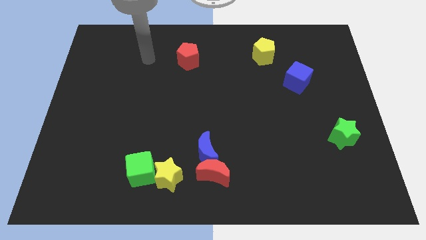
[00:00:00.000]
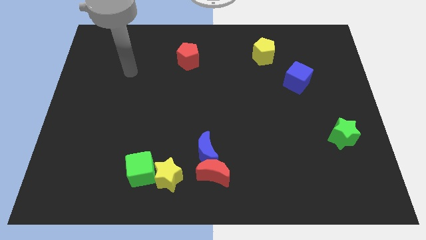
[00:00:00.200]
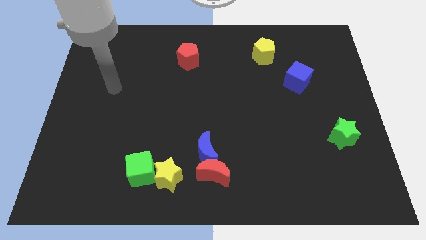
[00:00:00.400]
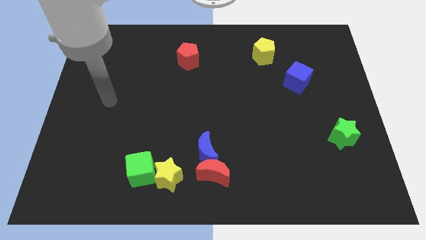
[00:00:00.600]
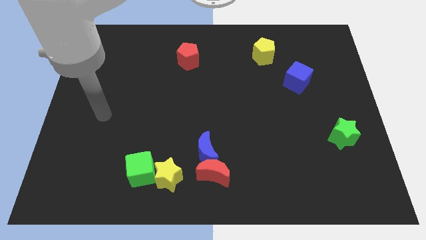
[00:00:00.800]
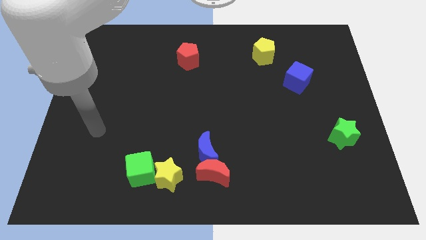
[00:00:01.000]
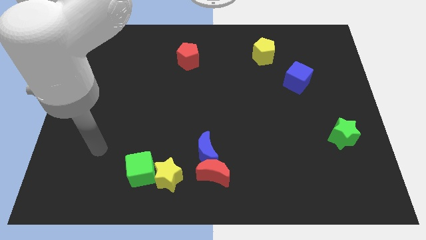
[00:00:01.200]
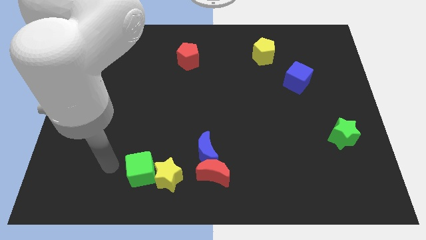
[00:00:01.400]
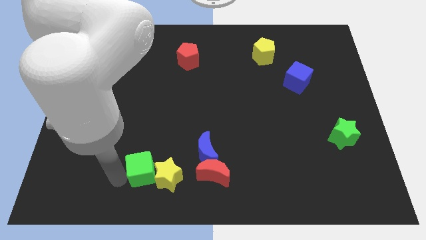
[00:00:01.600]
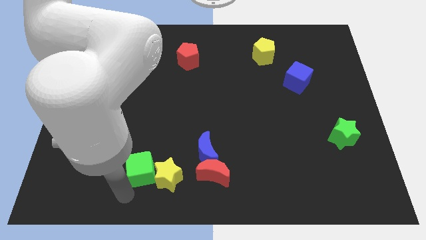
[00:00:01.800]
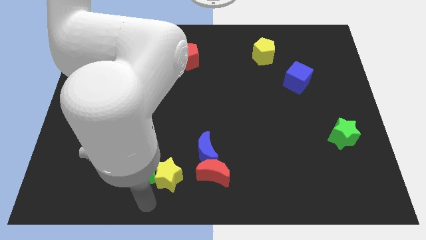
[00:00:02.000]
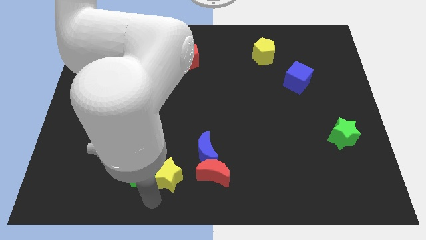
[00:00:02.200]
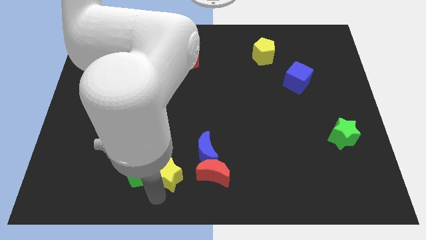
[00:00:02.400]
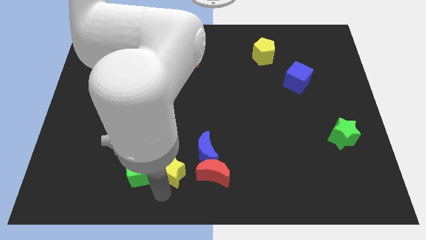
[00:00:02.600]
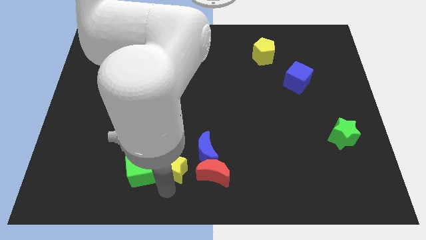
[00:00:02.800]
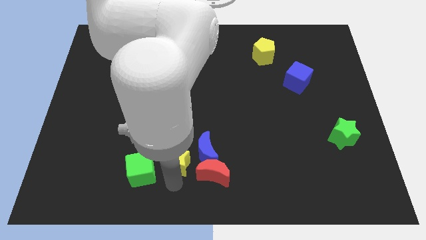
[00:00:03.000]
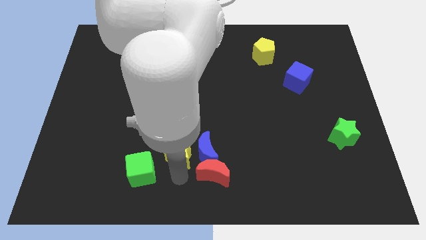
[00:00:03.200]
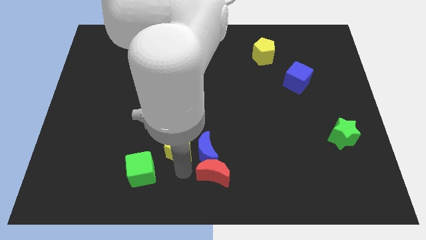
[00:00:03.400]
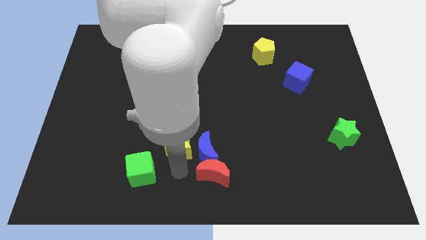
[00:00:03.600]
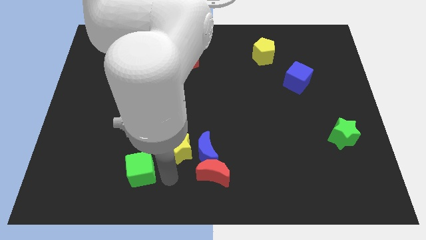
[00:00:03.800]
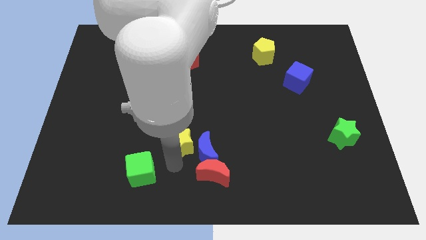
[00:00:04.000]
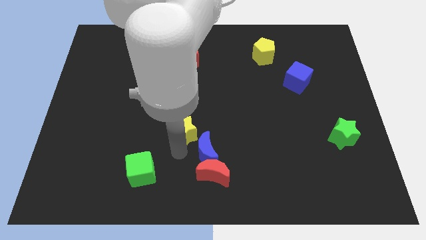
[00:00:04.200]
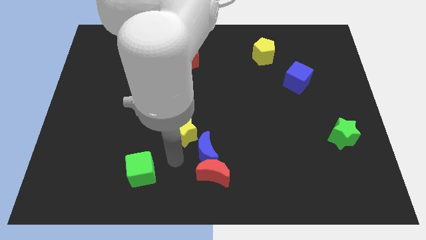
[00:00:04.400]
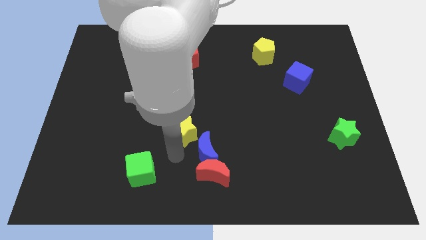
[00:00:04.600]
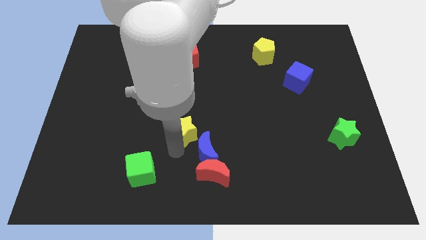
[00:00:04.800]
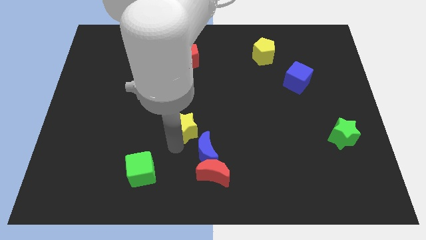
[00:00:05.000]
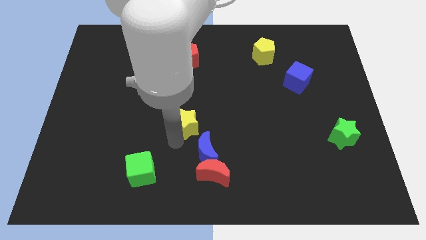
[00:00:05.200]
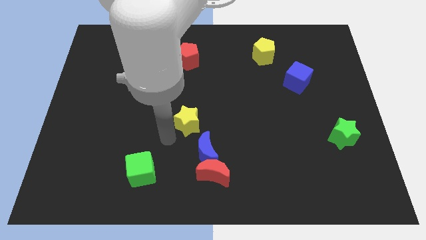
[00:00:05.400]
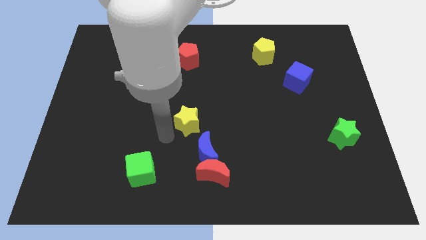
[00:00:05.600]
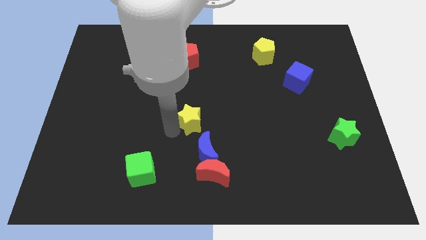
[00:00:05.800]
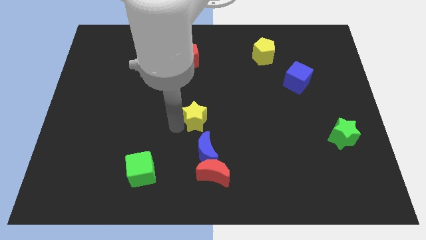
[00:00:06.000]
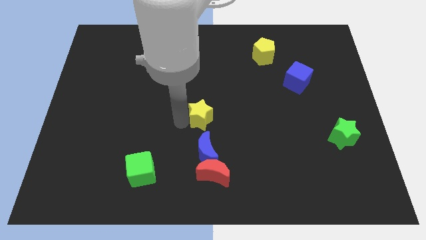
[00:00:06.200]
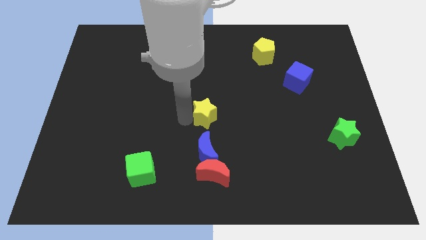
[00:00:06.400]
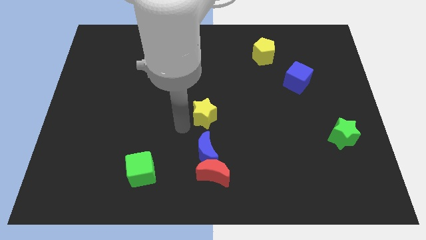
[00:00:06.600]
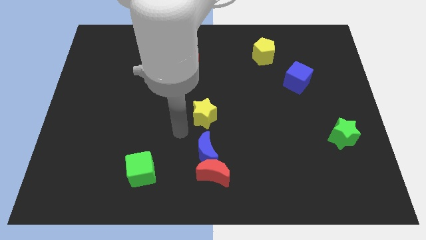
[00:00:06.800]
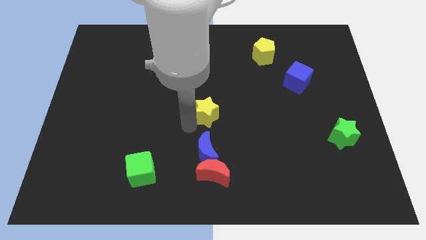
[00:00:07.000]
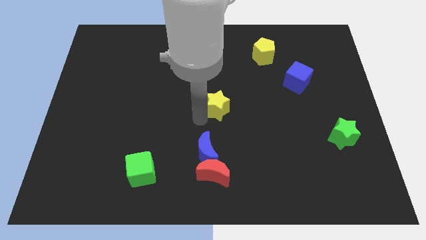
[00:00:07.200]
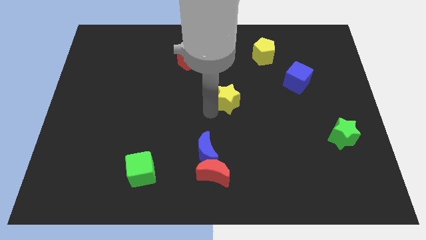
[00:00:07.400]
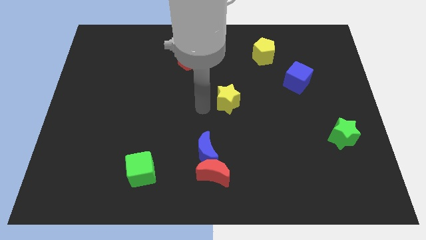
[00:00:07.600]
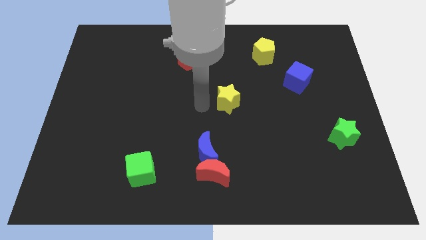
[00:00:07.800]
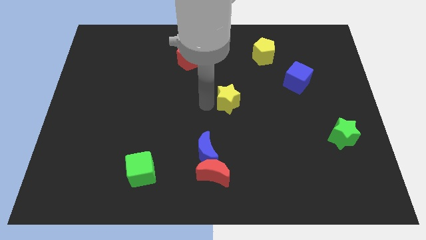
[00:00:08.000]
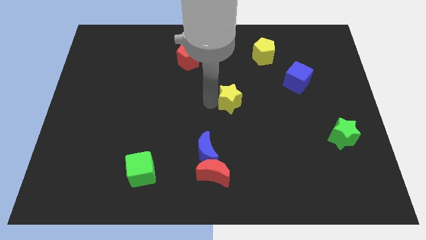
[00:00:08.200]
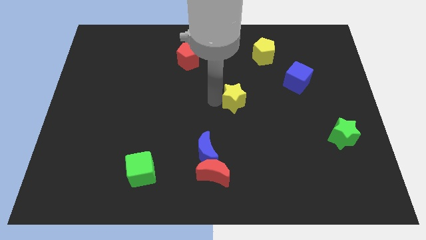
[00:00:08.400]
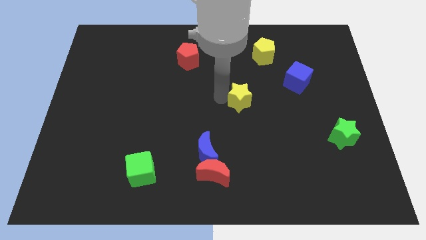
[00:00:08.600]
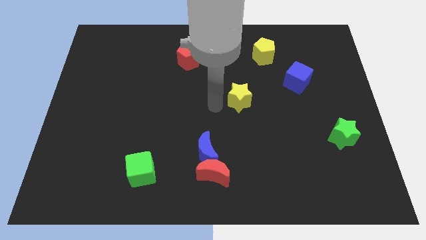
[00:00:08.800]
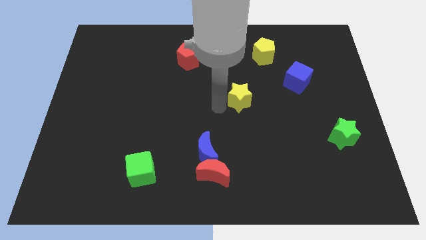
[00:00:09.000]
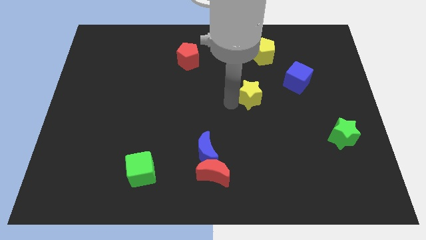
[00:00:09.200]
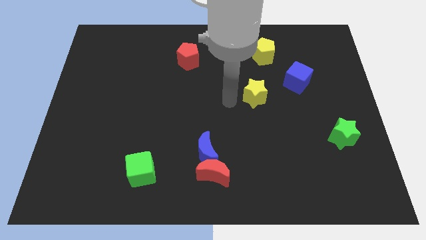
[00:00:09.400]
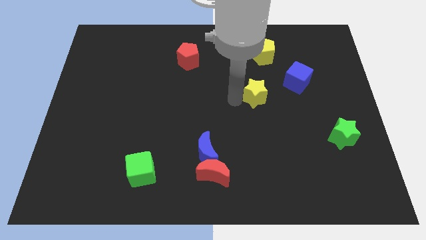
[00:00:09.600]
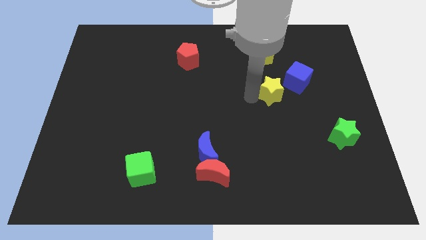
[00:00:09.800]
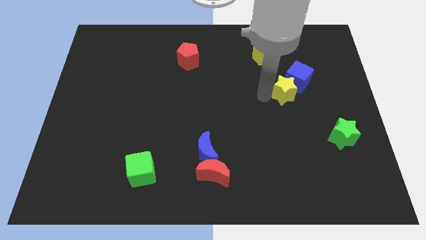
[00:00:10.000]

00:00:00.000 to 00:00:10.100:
move the yellow star next to the blue cube

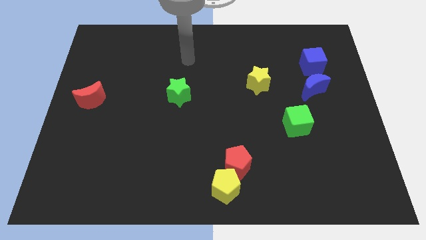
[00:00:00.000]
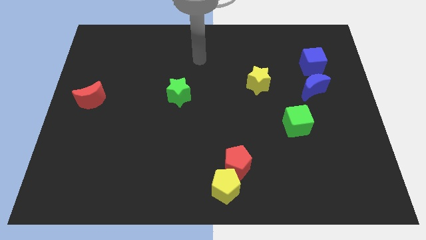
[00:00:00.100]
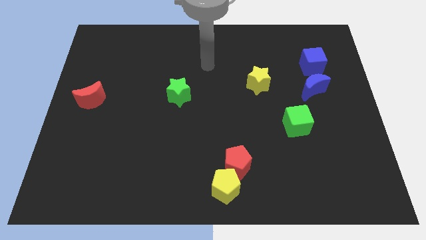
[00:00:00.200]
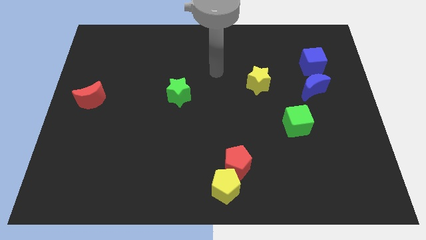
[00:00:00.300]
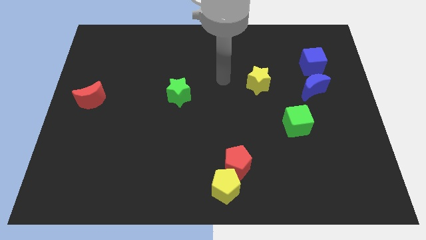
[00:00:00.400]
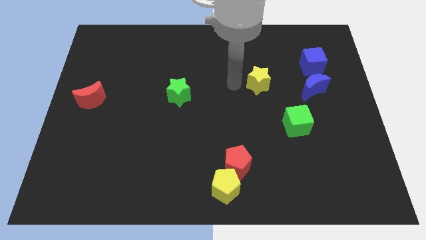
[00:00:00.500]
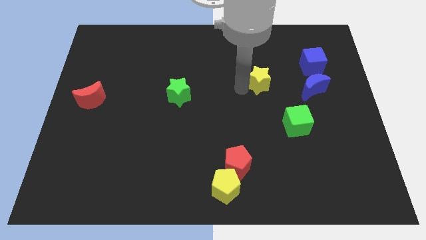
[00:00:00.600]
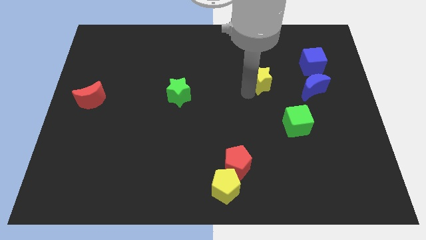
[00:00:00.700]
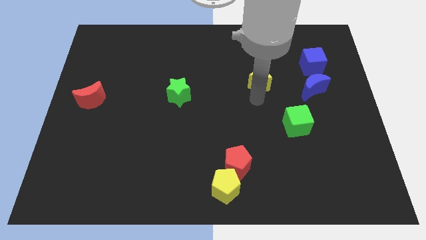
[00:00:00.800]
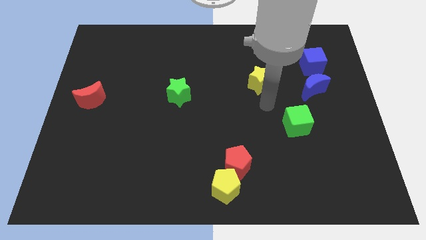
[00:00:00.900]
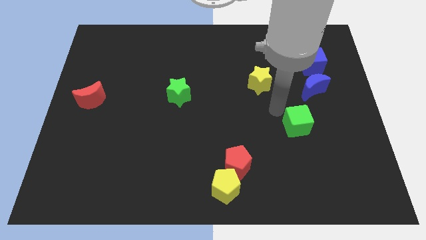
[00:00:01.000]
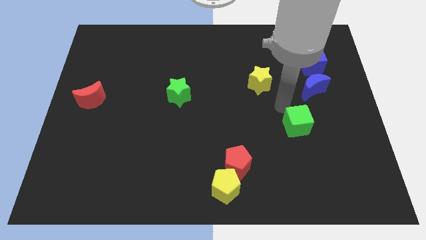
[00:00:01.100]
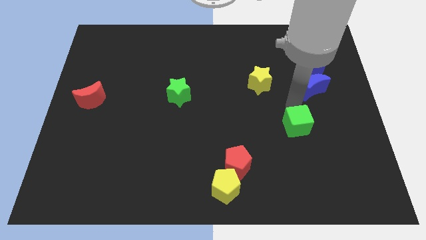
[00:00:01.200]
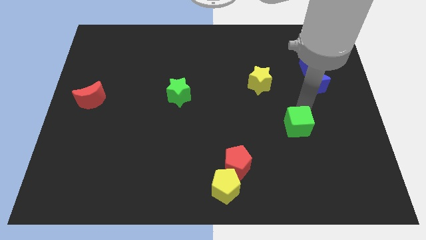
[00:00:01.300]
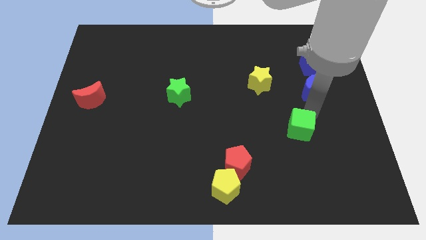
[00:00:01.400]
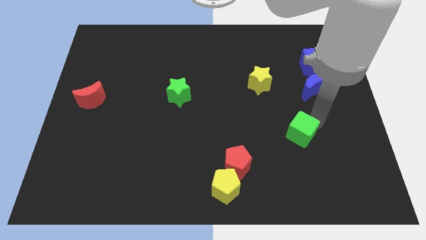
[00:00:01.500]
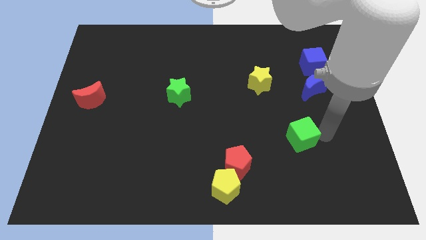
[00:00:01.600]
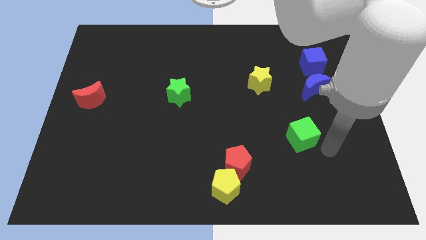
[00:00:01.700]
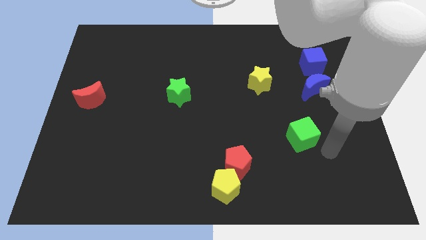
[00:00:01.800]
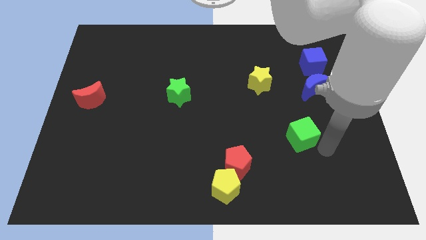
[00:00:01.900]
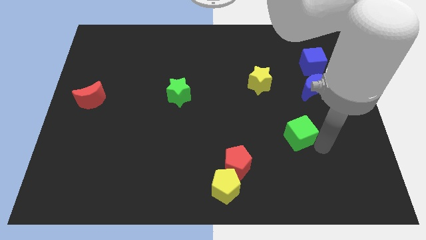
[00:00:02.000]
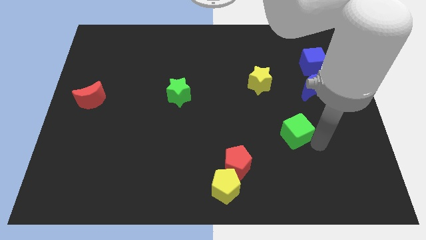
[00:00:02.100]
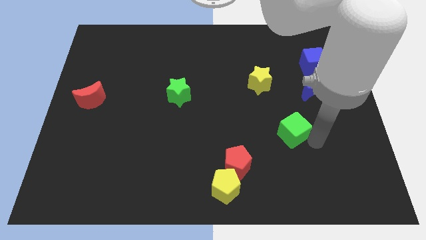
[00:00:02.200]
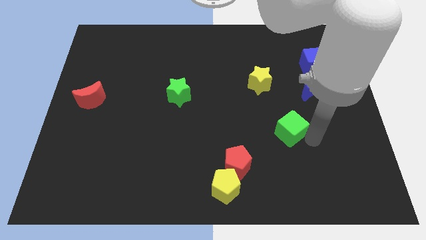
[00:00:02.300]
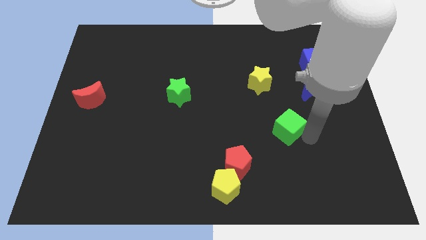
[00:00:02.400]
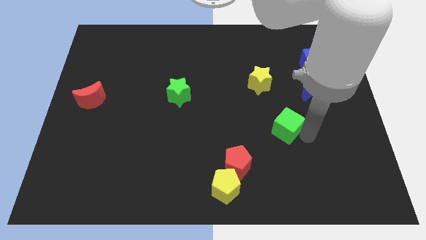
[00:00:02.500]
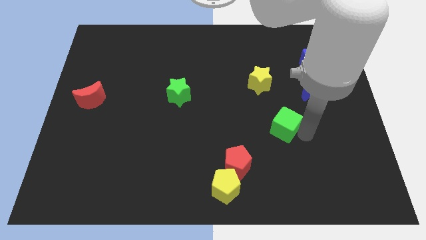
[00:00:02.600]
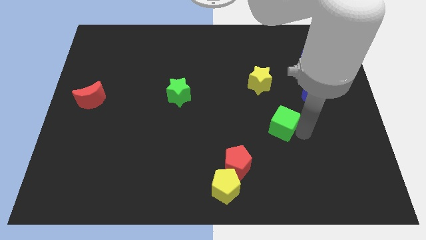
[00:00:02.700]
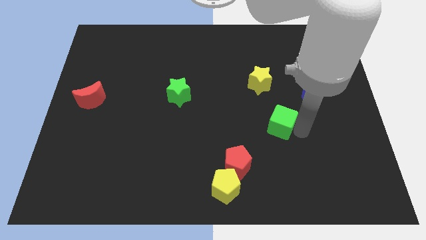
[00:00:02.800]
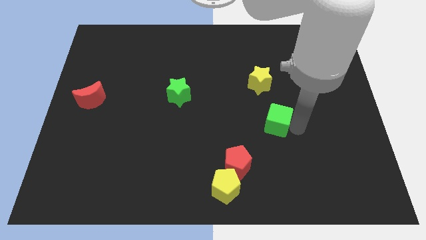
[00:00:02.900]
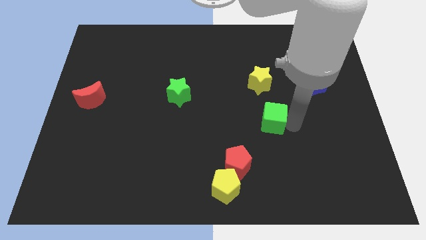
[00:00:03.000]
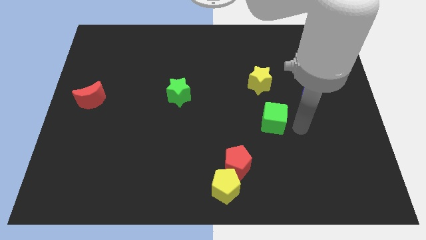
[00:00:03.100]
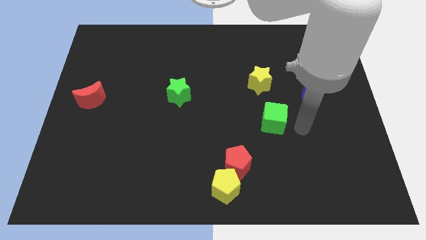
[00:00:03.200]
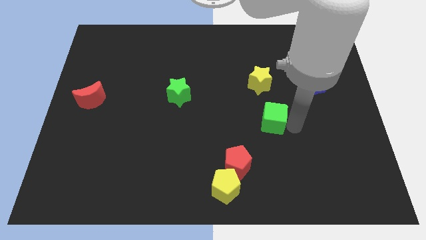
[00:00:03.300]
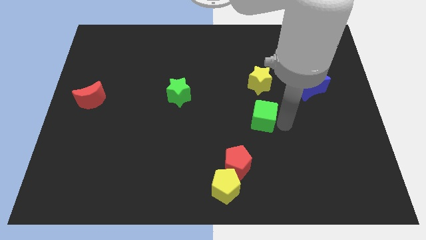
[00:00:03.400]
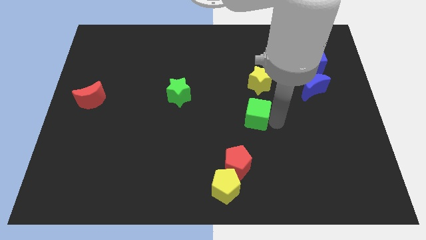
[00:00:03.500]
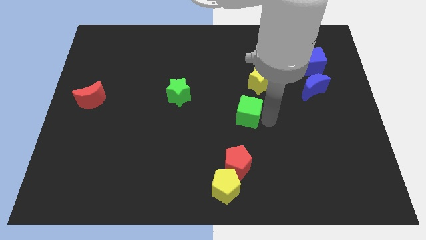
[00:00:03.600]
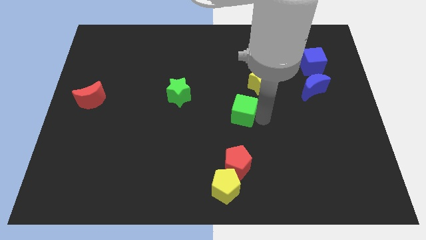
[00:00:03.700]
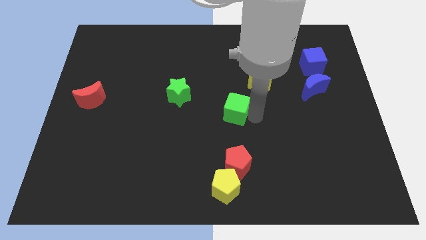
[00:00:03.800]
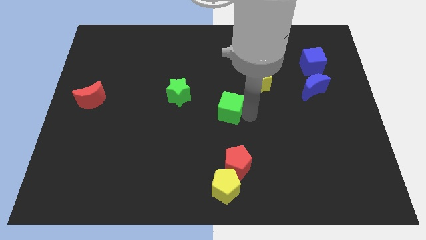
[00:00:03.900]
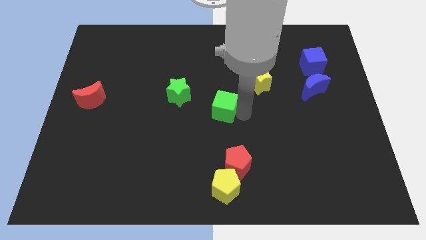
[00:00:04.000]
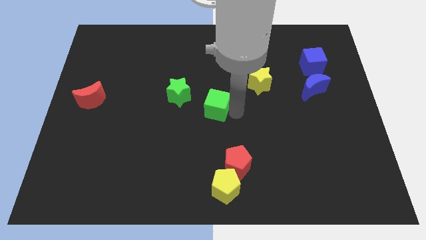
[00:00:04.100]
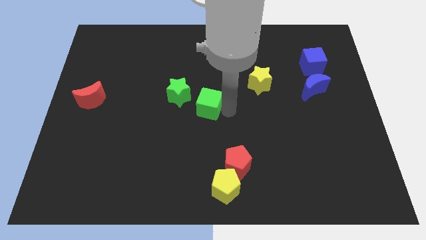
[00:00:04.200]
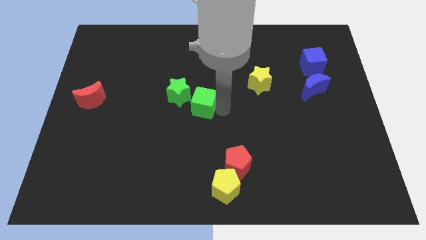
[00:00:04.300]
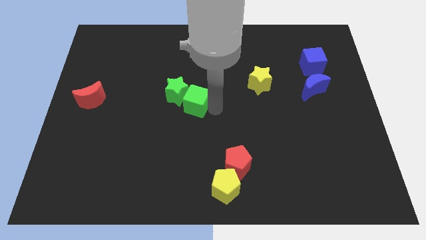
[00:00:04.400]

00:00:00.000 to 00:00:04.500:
move the green cube close to the green star
